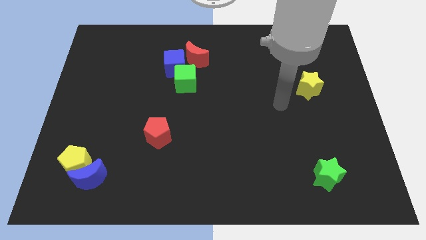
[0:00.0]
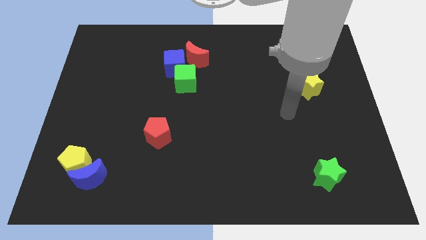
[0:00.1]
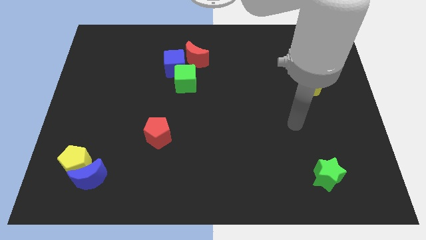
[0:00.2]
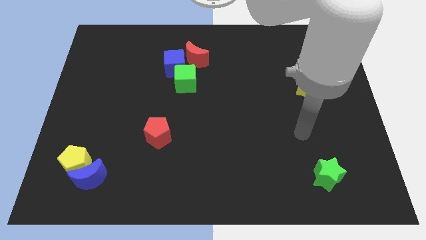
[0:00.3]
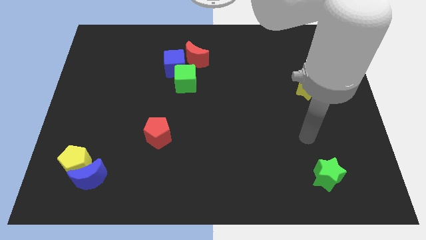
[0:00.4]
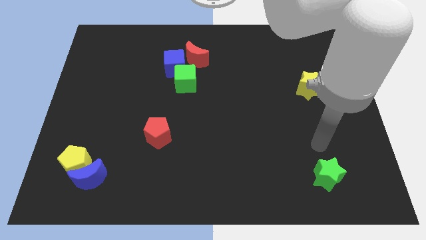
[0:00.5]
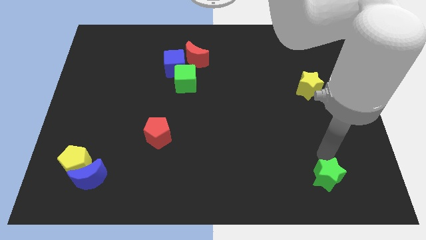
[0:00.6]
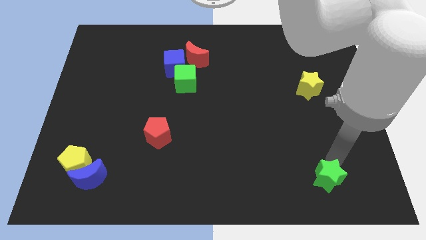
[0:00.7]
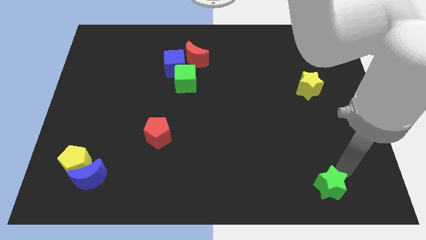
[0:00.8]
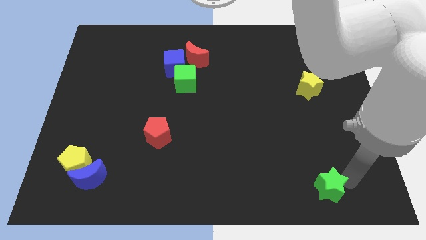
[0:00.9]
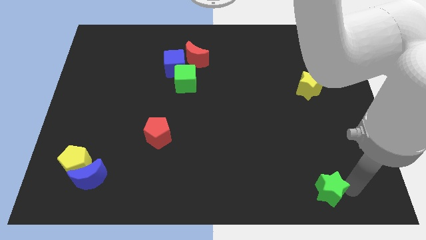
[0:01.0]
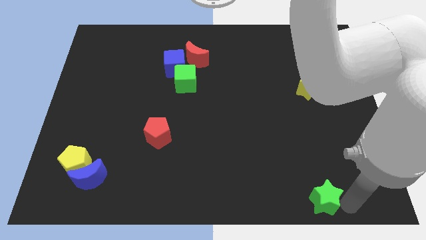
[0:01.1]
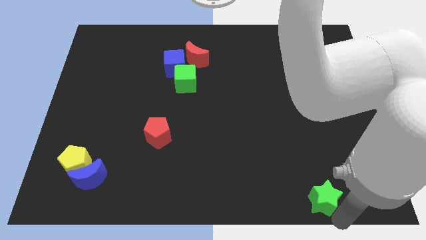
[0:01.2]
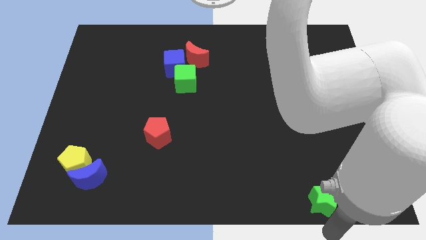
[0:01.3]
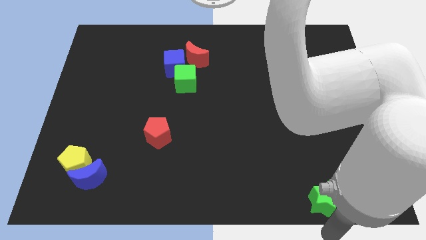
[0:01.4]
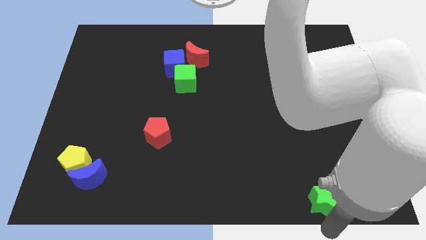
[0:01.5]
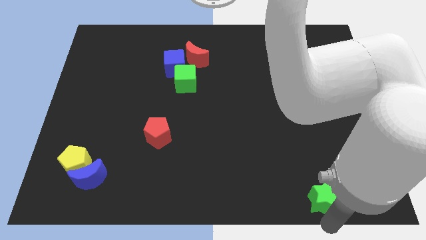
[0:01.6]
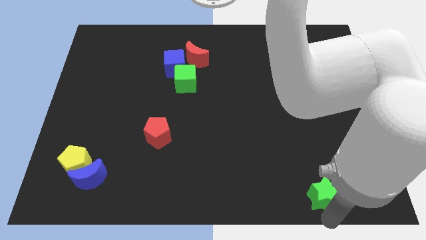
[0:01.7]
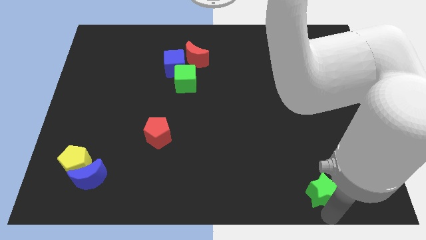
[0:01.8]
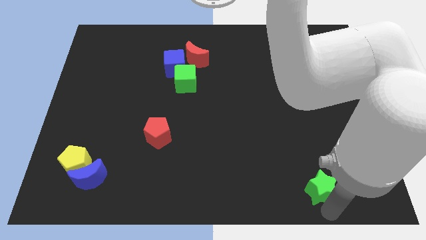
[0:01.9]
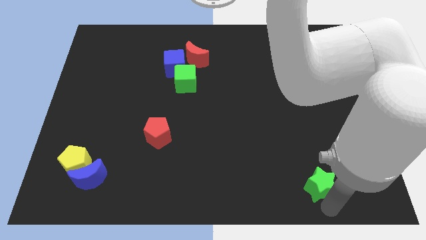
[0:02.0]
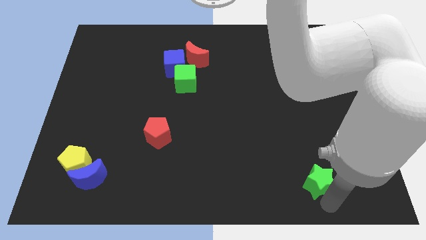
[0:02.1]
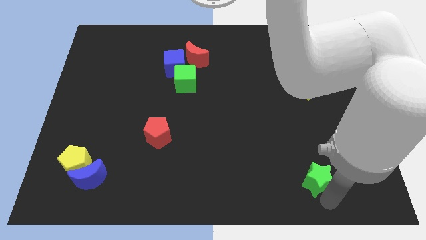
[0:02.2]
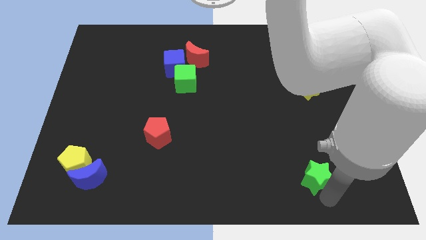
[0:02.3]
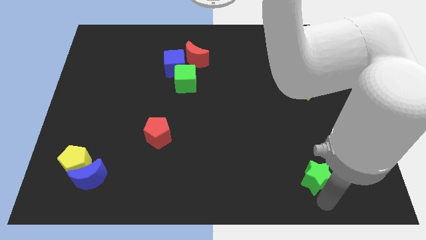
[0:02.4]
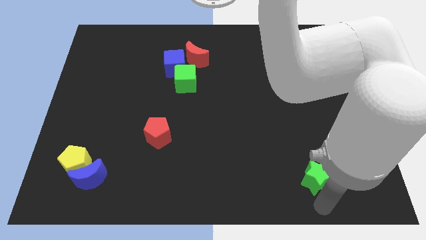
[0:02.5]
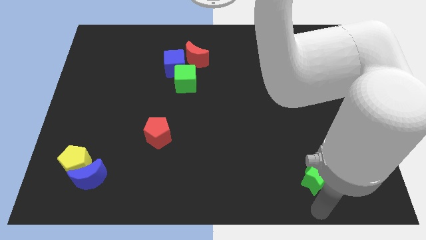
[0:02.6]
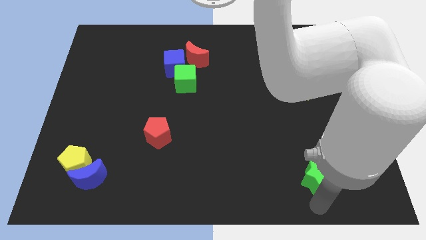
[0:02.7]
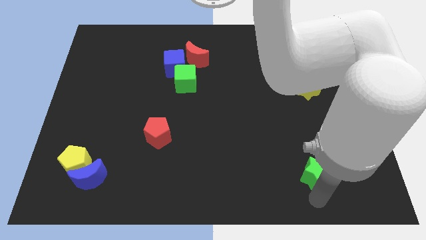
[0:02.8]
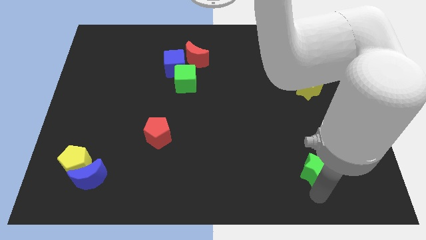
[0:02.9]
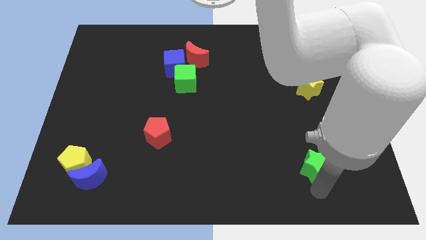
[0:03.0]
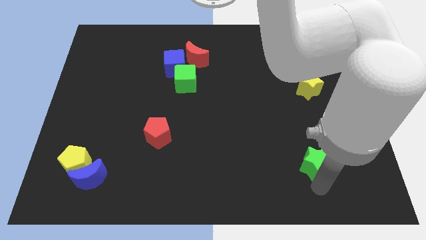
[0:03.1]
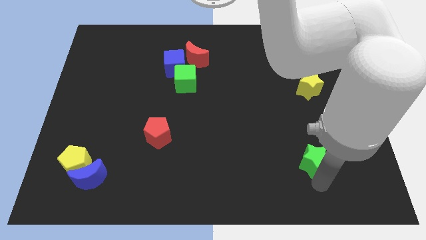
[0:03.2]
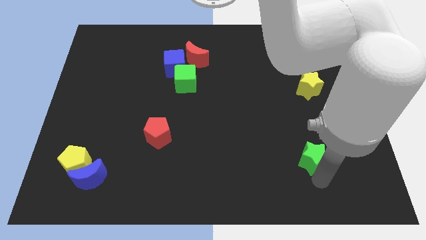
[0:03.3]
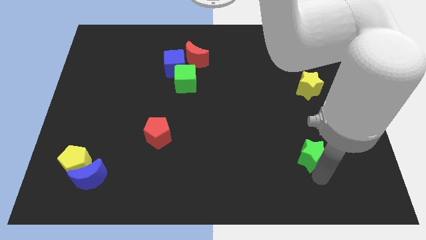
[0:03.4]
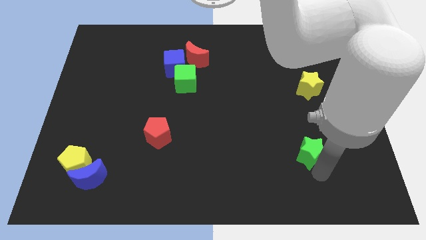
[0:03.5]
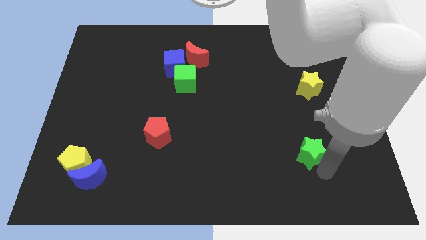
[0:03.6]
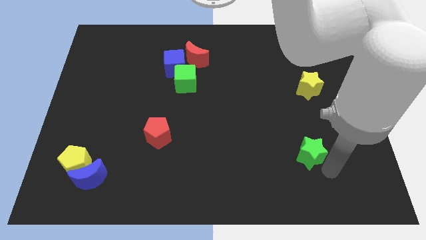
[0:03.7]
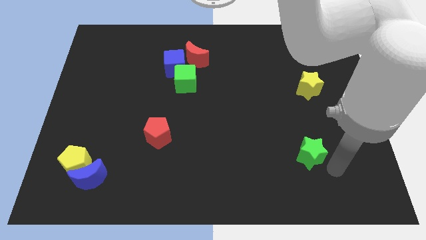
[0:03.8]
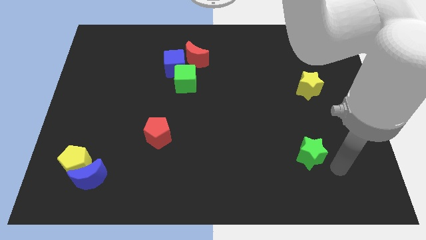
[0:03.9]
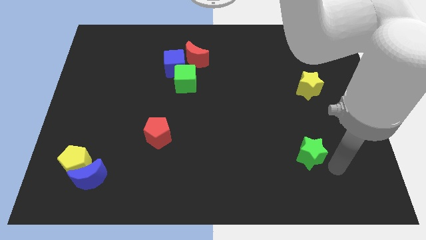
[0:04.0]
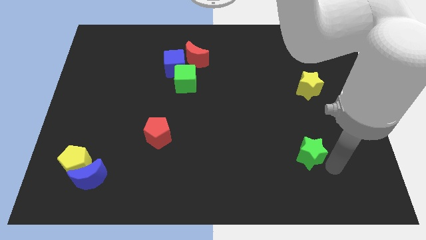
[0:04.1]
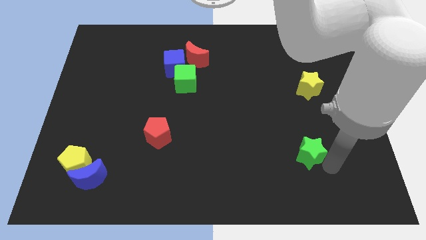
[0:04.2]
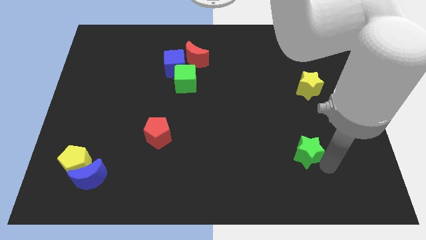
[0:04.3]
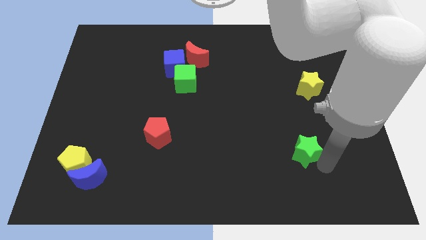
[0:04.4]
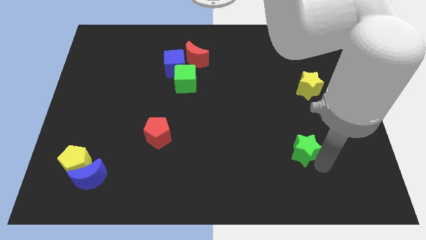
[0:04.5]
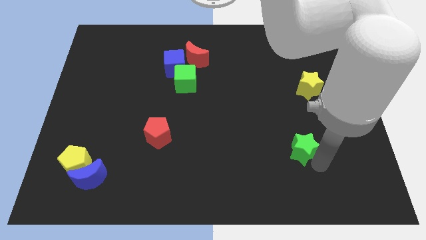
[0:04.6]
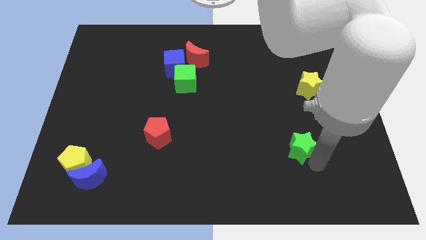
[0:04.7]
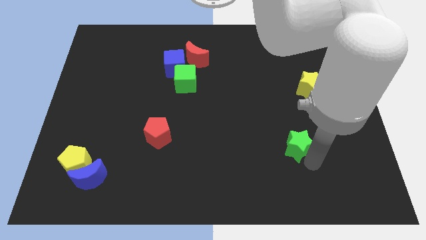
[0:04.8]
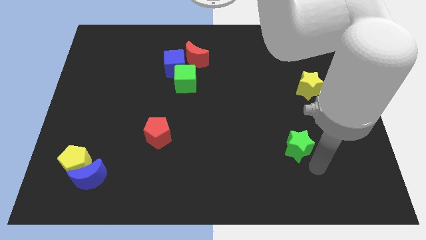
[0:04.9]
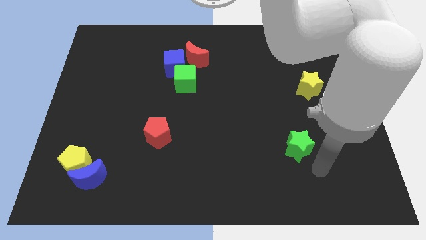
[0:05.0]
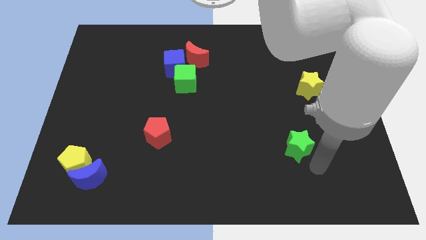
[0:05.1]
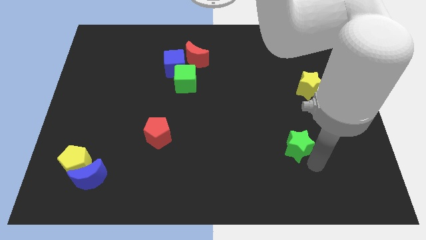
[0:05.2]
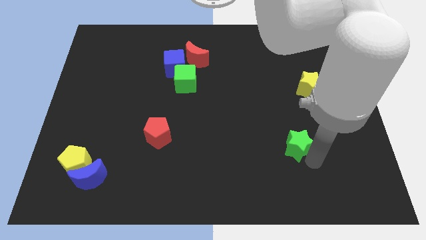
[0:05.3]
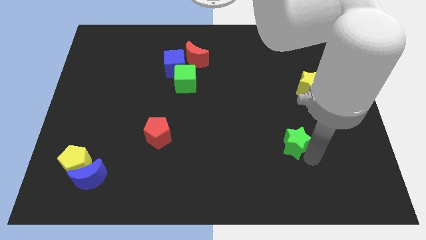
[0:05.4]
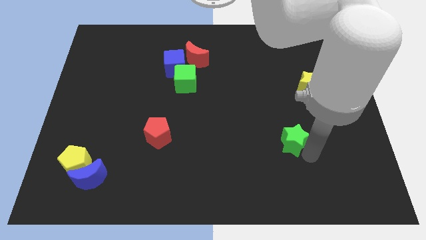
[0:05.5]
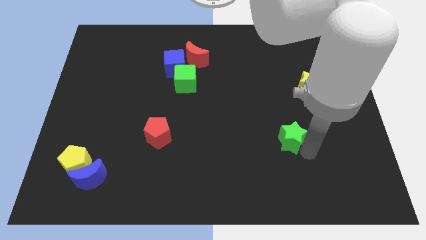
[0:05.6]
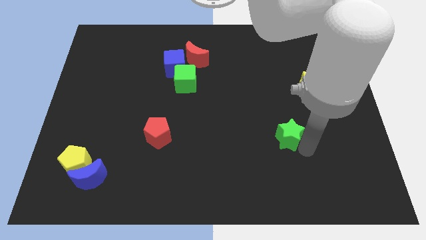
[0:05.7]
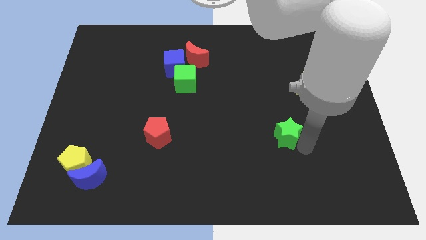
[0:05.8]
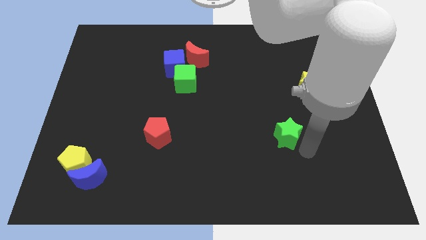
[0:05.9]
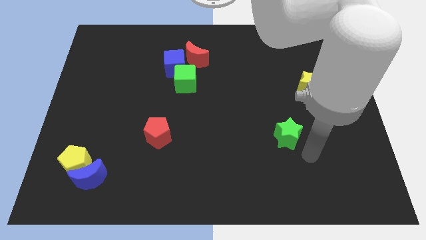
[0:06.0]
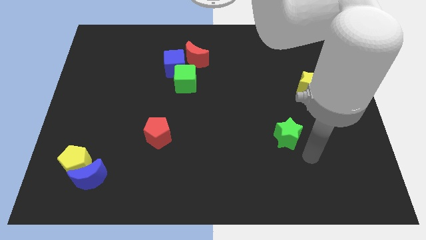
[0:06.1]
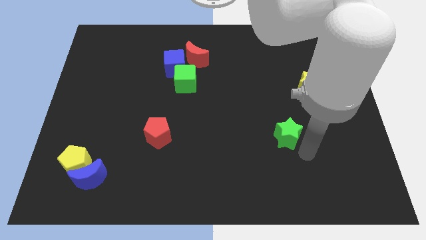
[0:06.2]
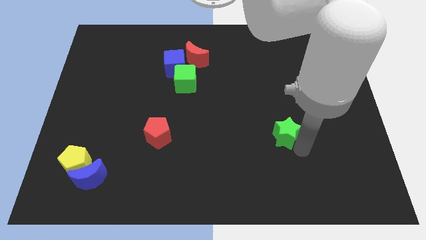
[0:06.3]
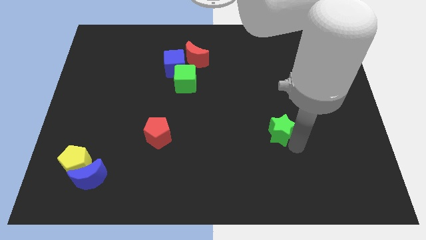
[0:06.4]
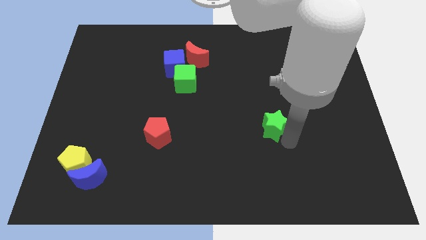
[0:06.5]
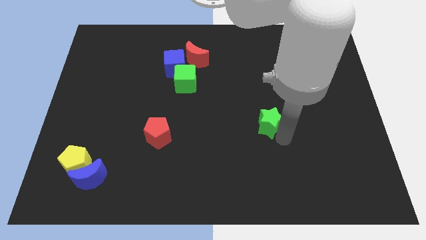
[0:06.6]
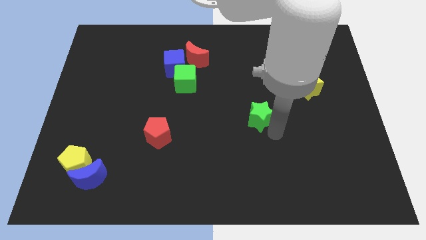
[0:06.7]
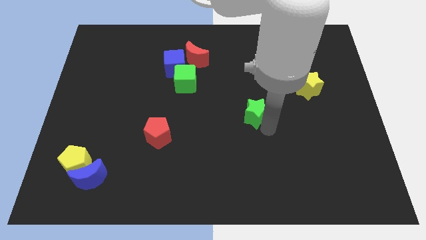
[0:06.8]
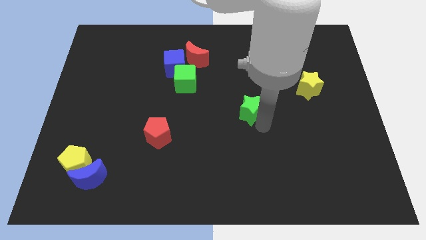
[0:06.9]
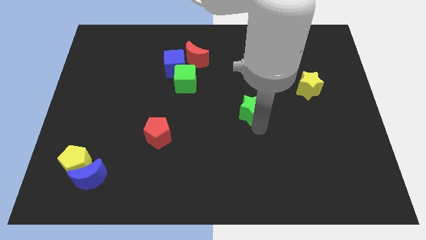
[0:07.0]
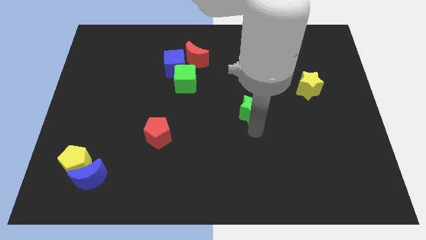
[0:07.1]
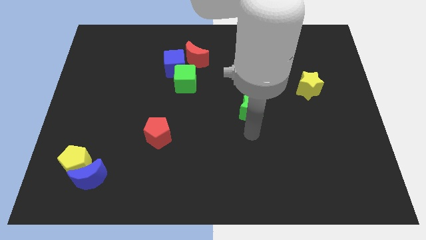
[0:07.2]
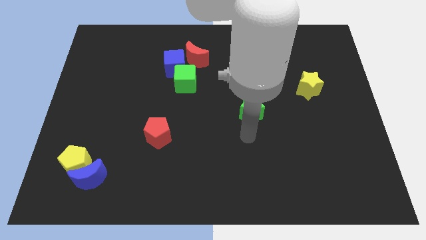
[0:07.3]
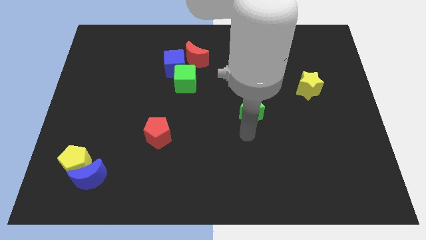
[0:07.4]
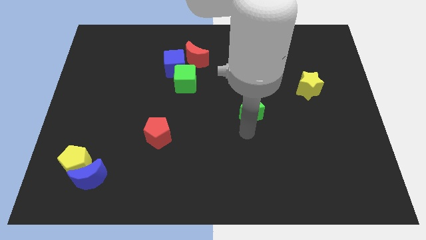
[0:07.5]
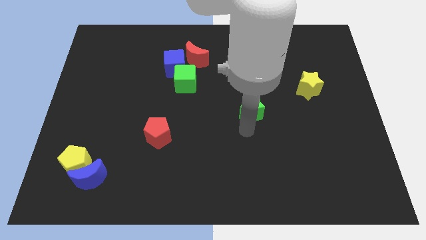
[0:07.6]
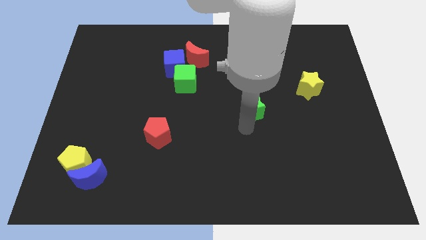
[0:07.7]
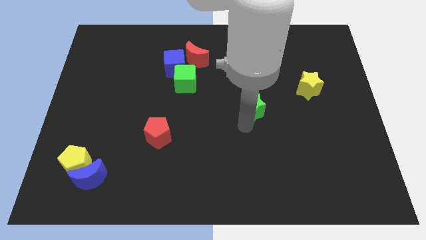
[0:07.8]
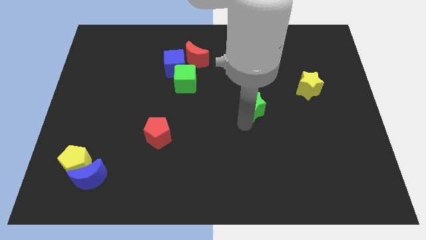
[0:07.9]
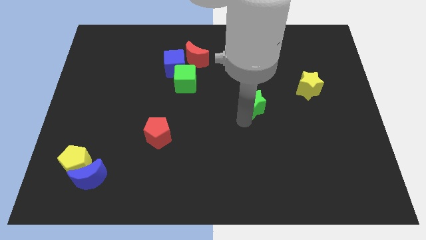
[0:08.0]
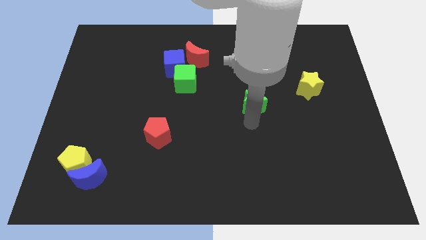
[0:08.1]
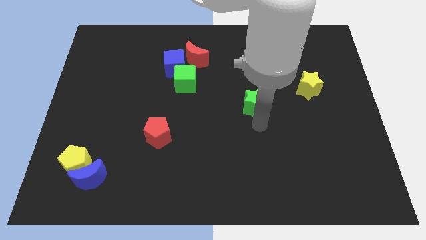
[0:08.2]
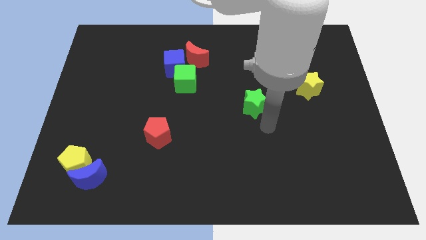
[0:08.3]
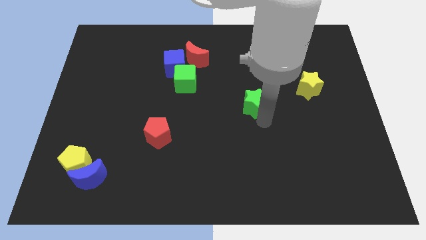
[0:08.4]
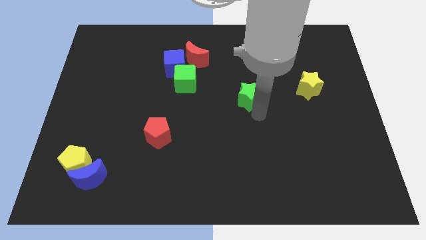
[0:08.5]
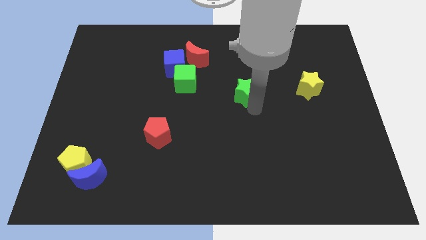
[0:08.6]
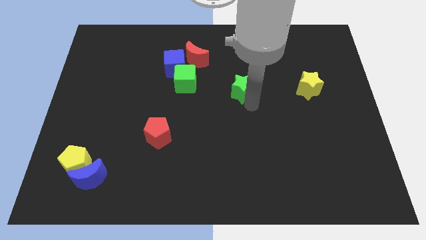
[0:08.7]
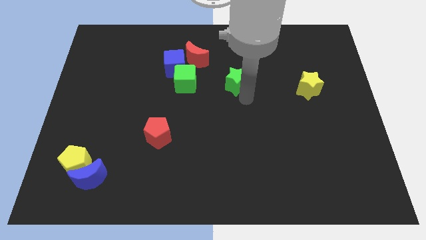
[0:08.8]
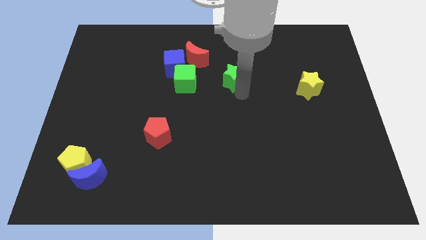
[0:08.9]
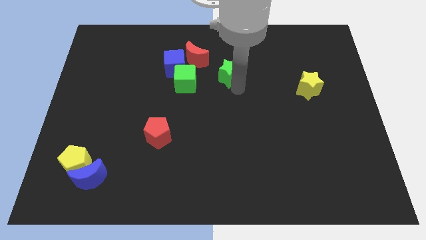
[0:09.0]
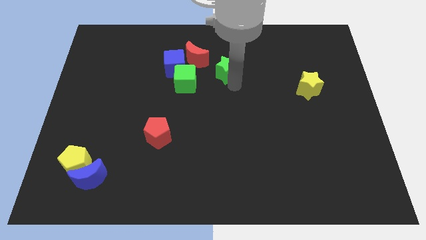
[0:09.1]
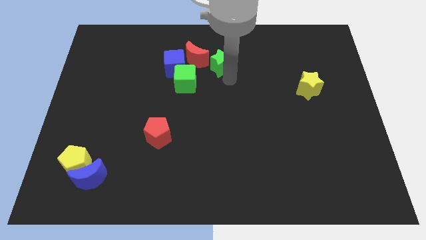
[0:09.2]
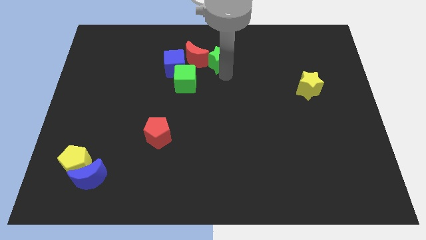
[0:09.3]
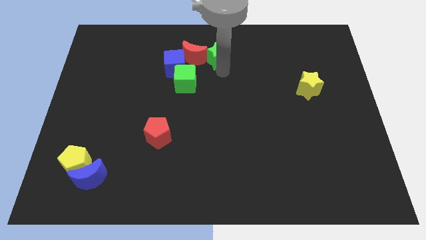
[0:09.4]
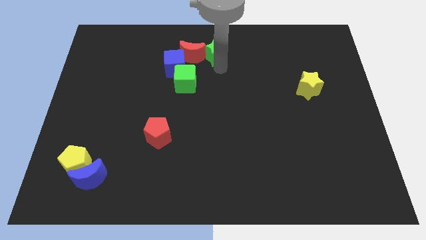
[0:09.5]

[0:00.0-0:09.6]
push the green star to the top side
